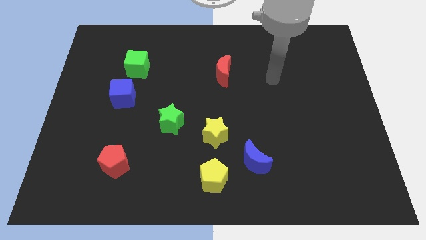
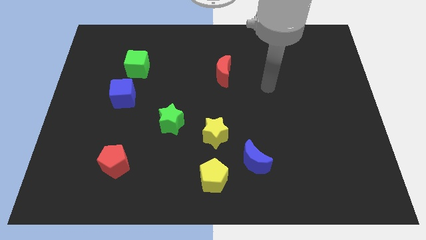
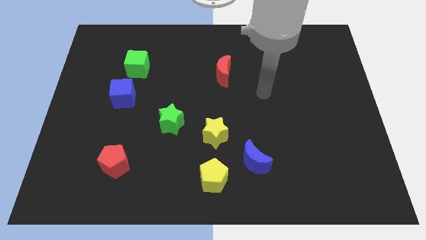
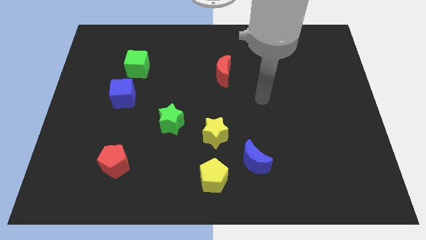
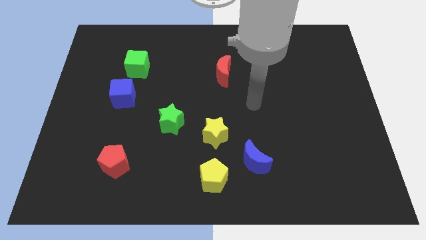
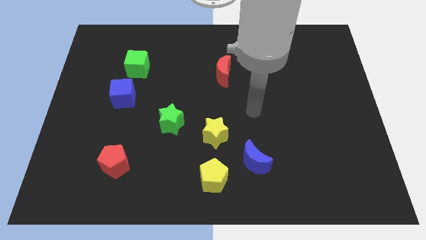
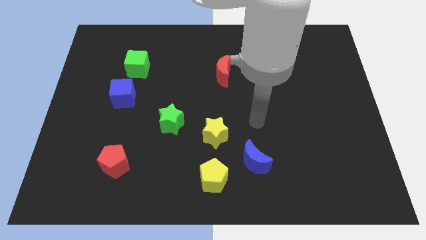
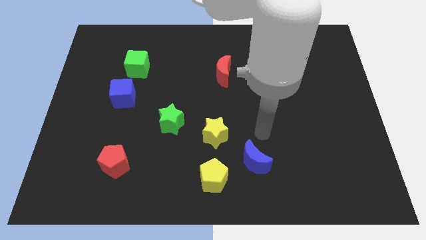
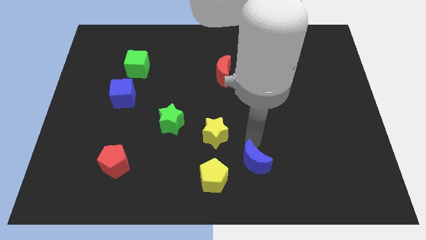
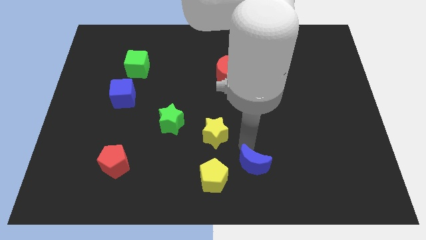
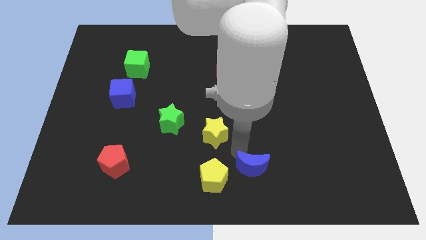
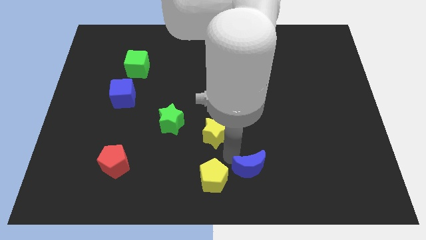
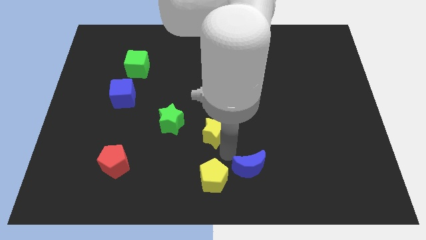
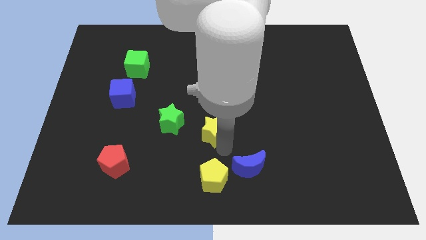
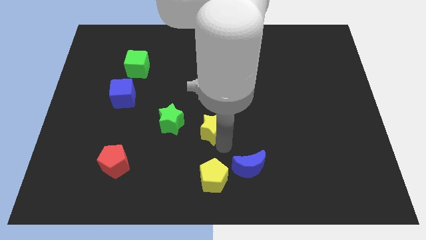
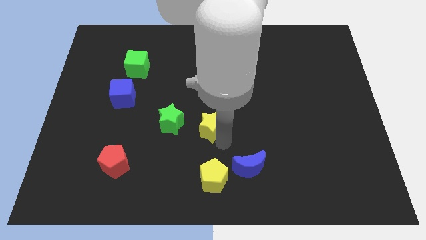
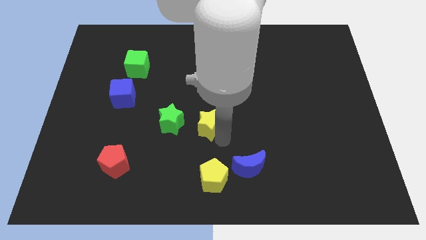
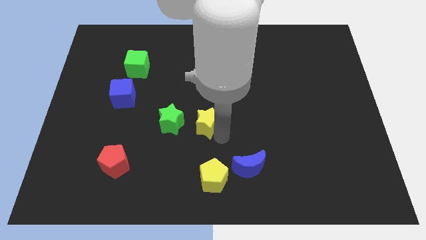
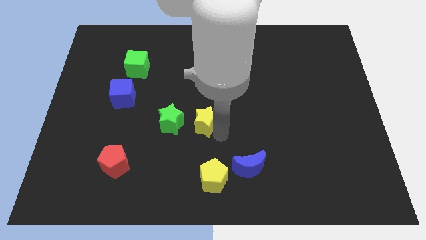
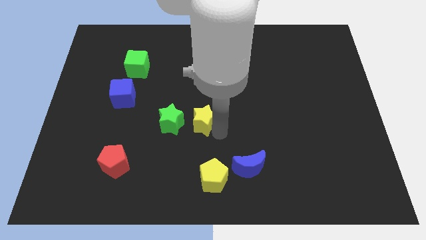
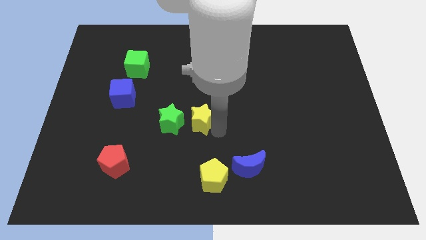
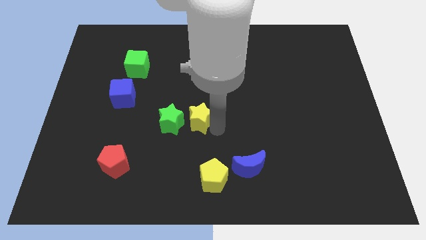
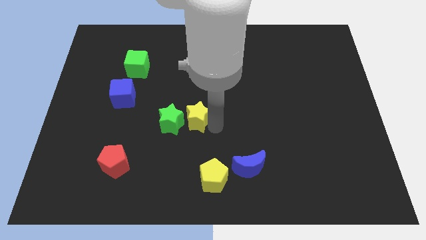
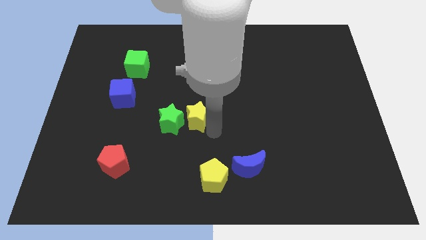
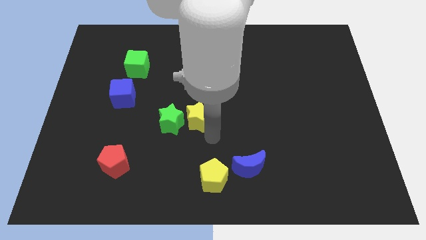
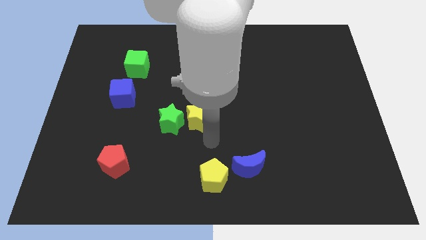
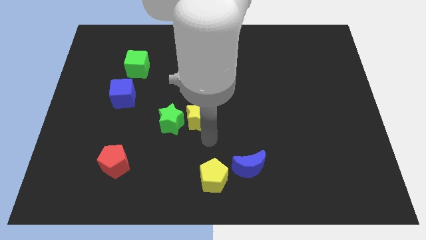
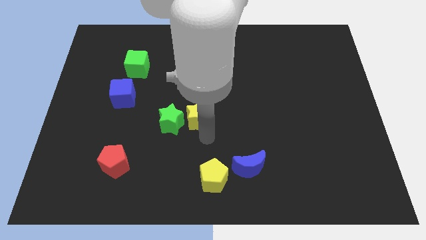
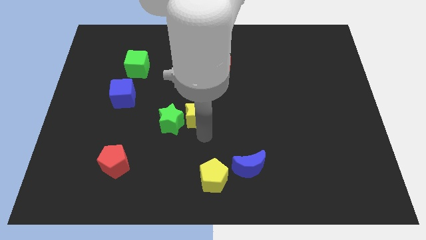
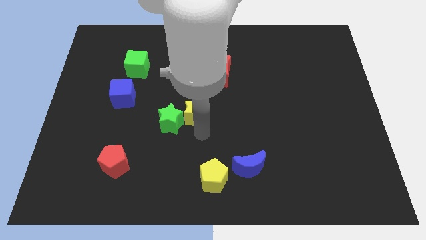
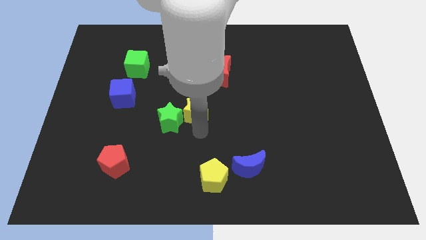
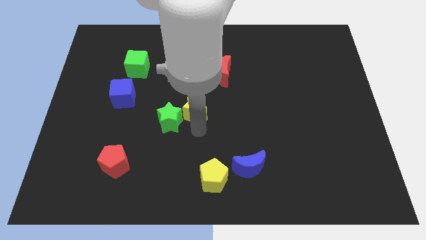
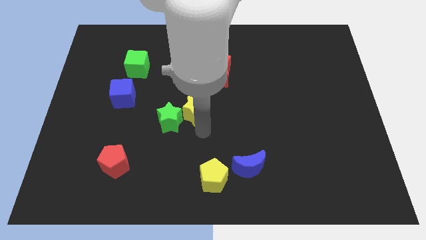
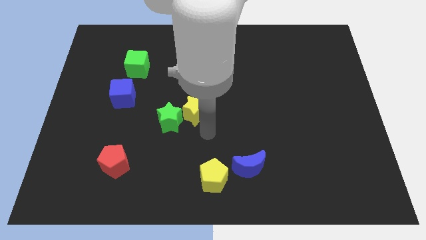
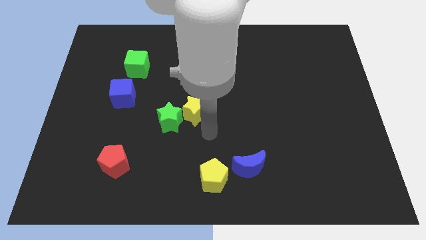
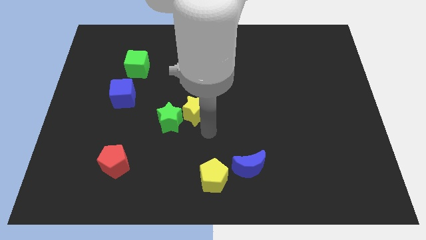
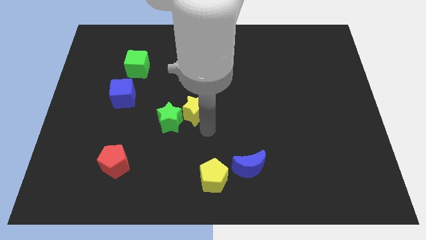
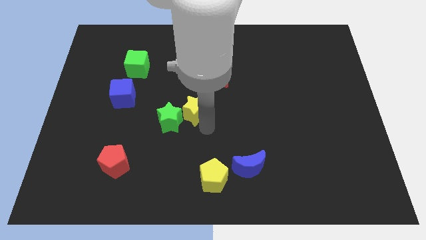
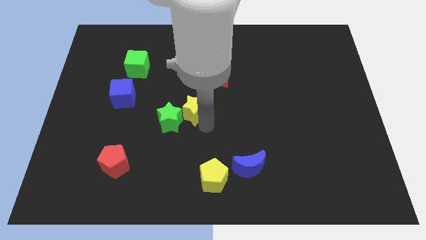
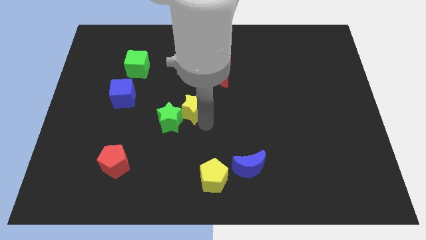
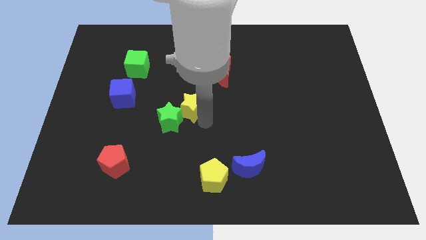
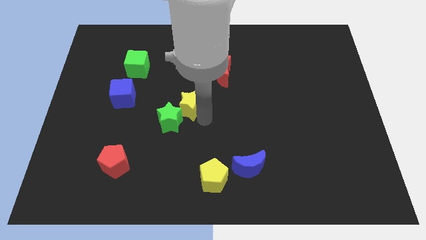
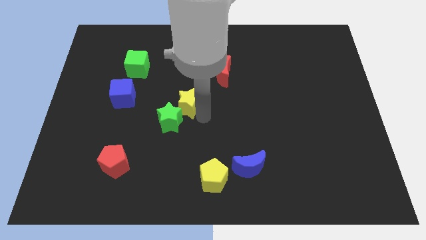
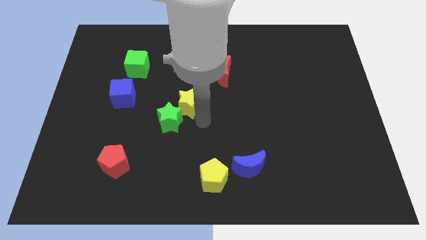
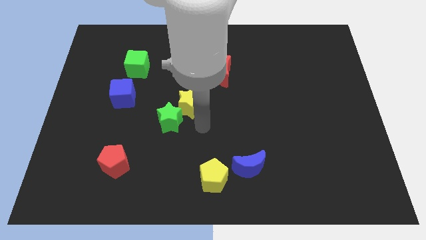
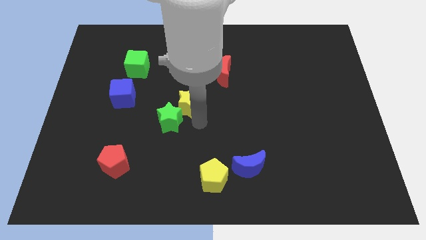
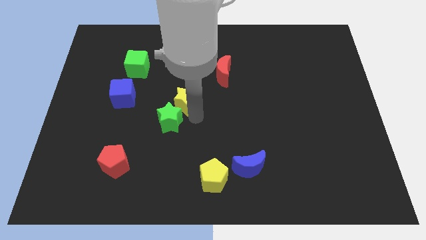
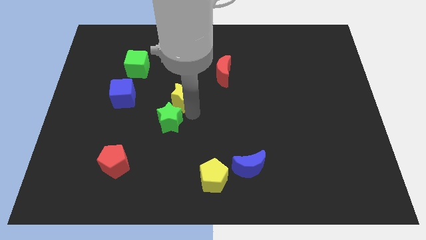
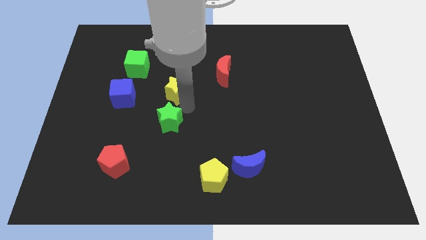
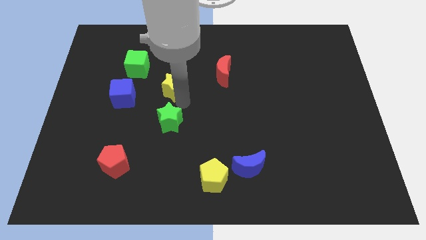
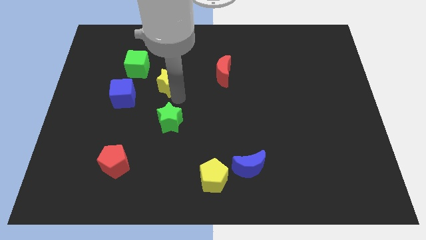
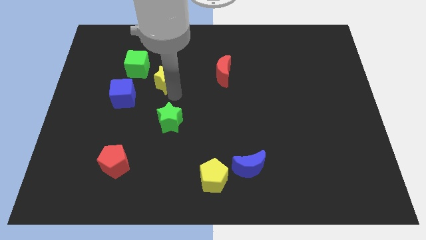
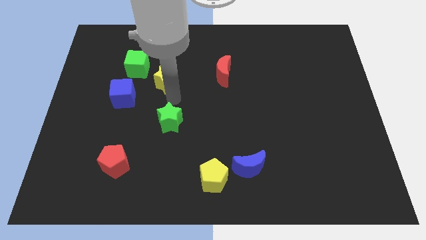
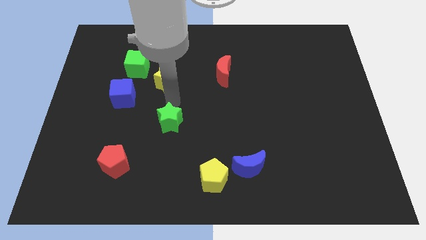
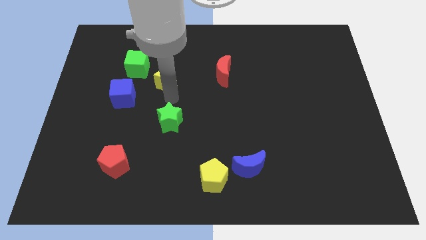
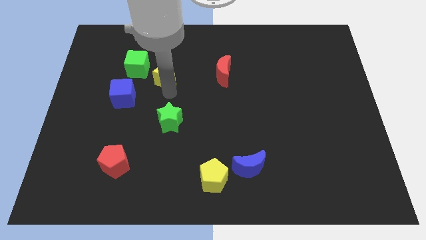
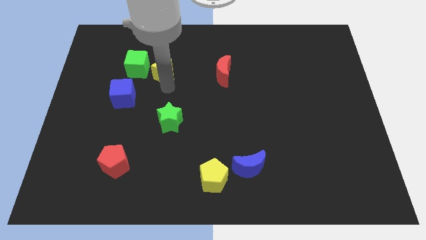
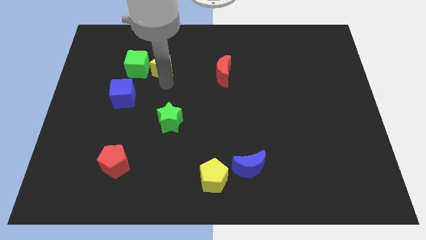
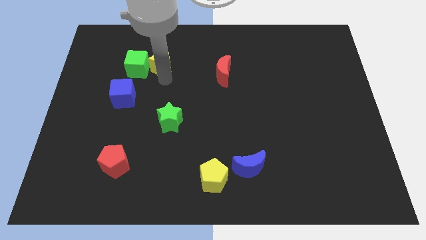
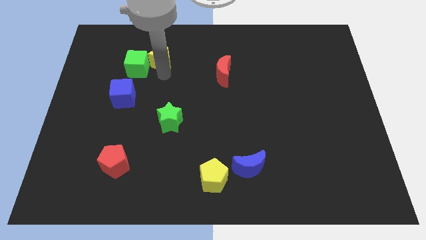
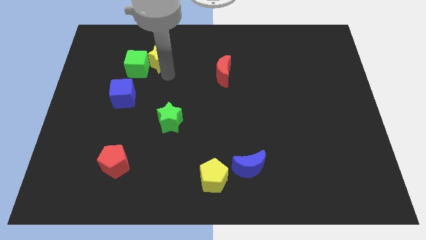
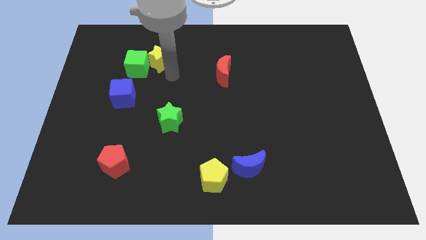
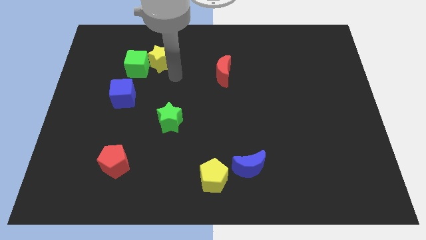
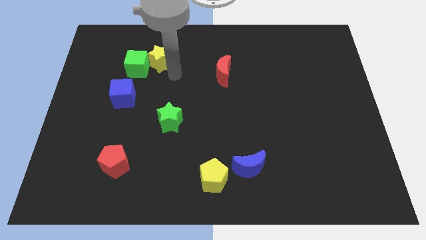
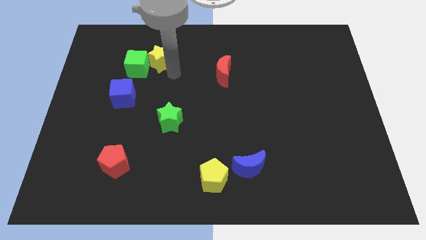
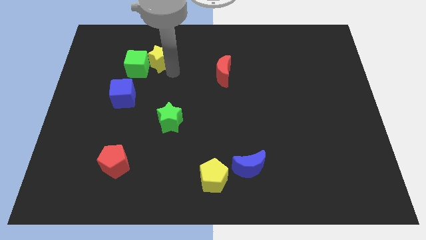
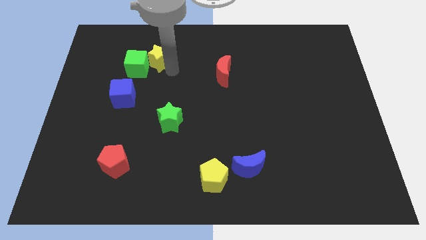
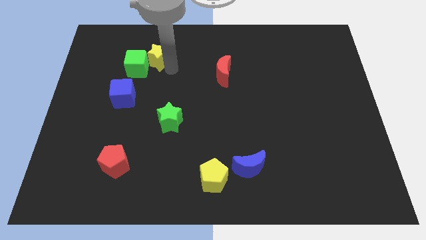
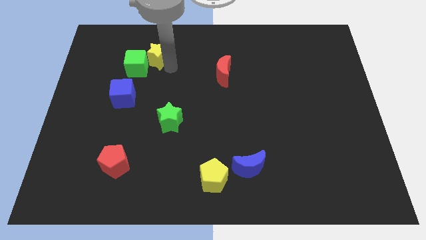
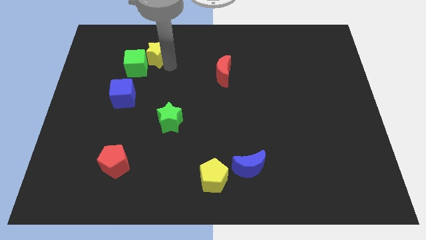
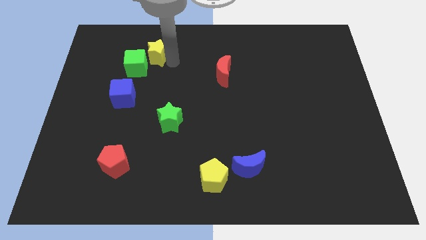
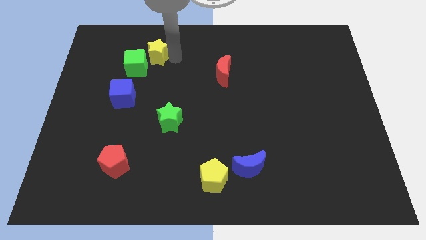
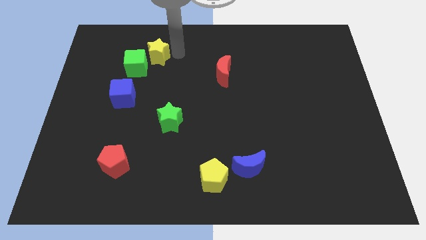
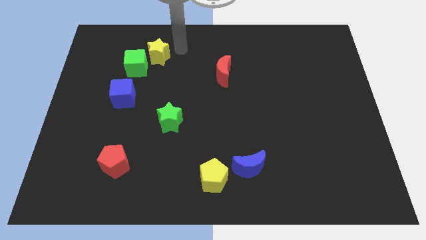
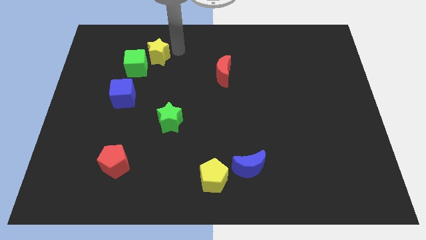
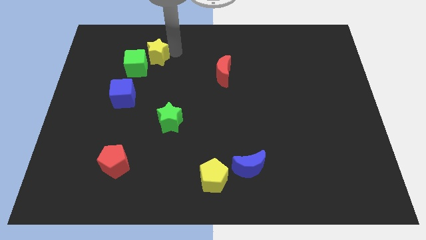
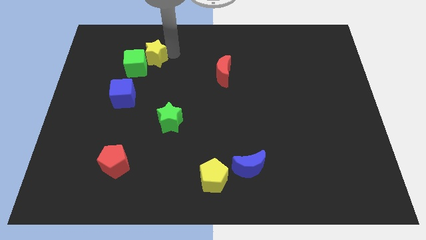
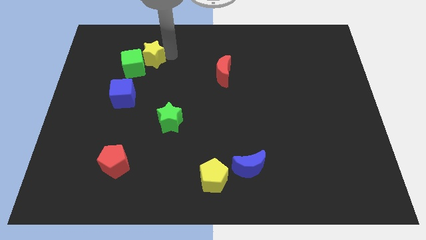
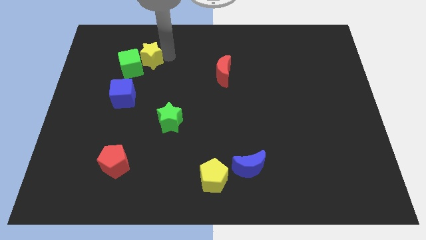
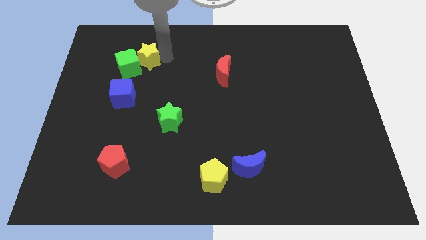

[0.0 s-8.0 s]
move the yellow star above the blue cube
